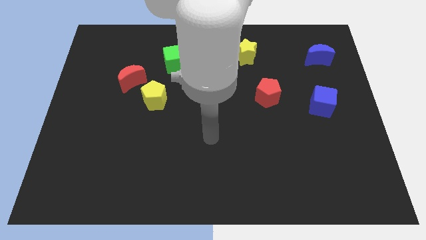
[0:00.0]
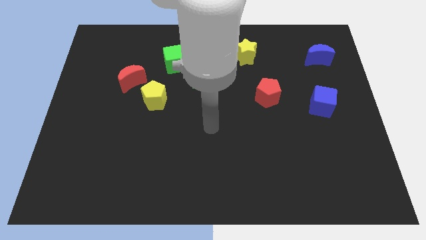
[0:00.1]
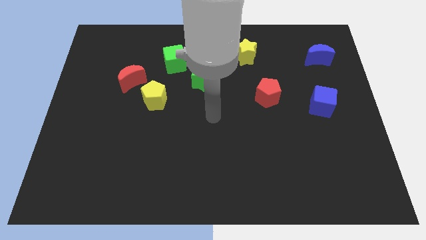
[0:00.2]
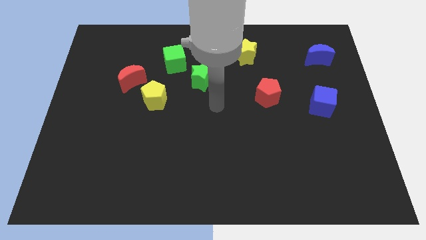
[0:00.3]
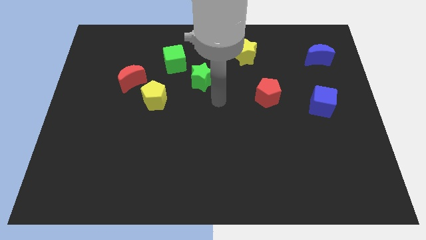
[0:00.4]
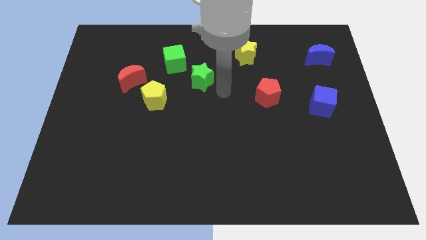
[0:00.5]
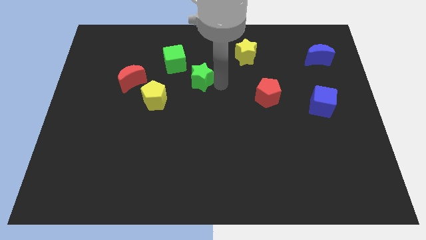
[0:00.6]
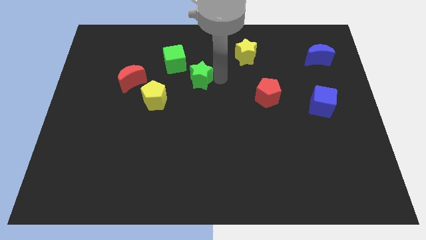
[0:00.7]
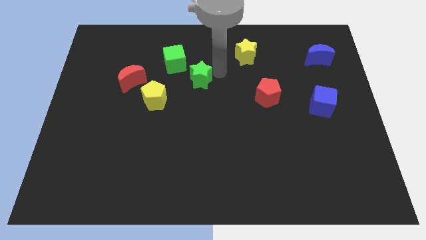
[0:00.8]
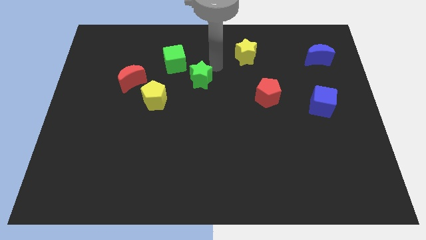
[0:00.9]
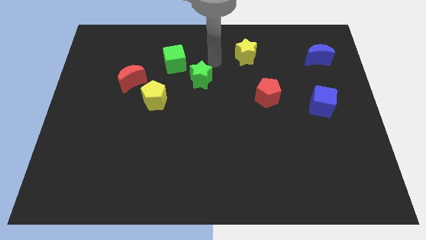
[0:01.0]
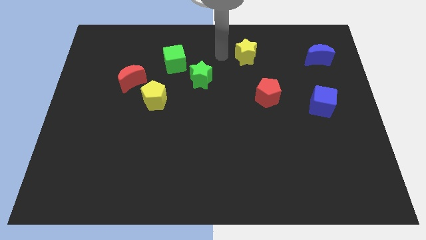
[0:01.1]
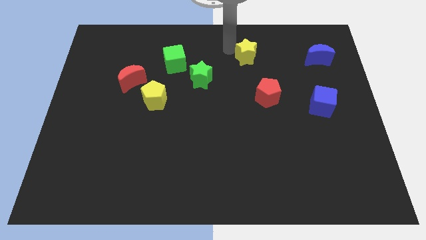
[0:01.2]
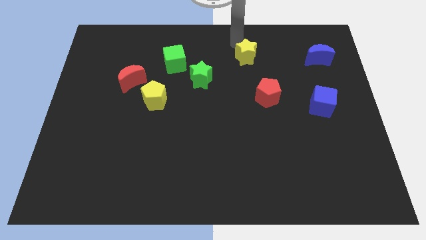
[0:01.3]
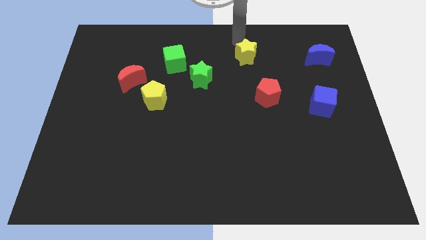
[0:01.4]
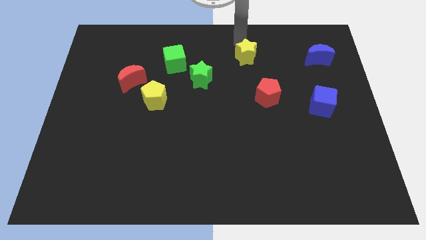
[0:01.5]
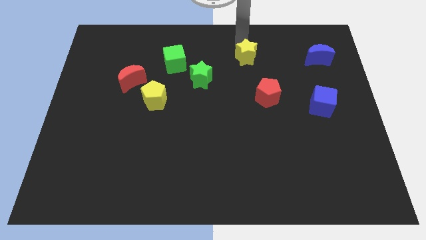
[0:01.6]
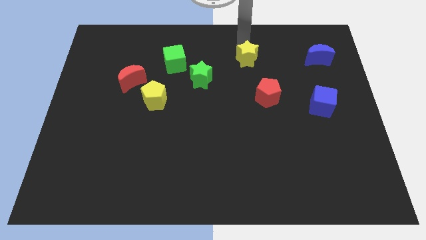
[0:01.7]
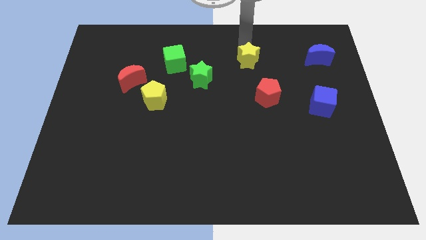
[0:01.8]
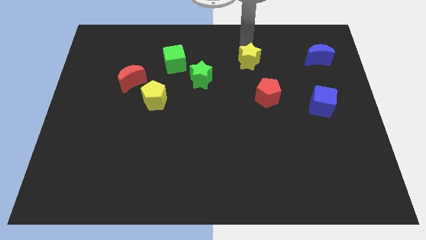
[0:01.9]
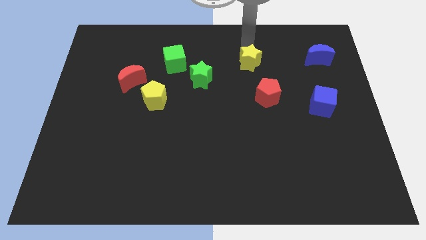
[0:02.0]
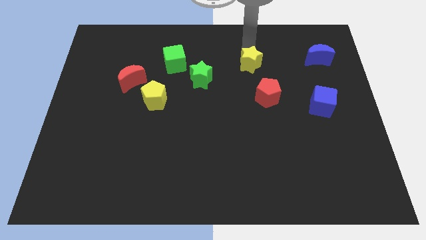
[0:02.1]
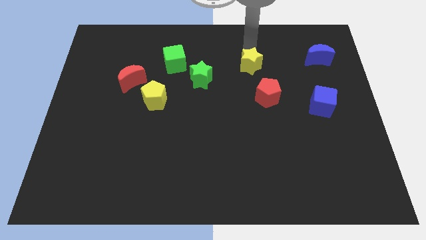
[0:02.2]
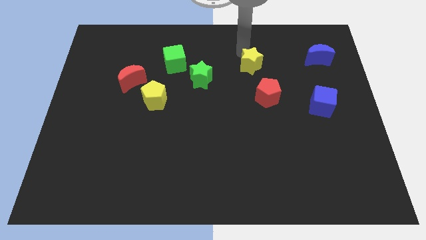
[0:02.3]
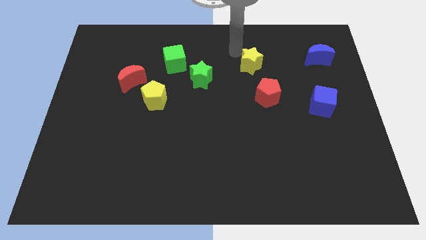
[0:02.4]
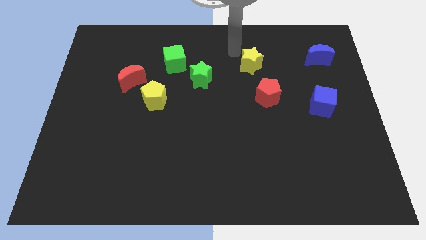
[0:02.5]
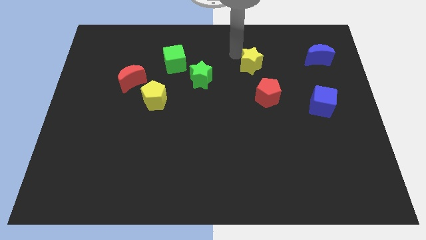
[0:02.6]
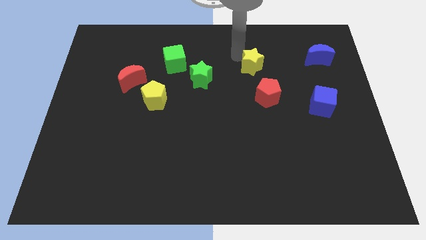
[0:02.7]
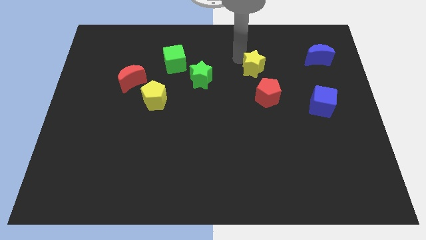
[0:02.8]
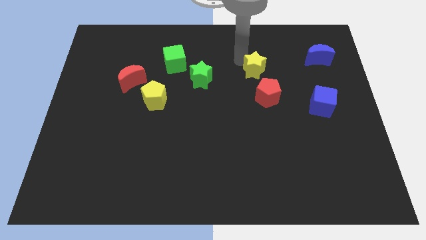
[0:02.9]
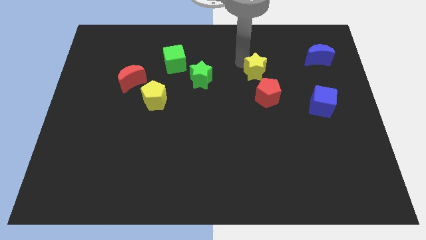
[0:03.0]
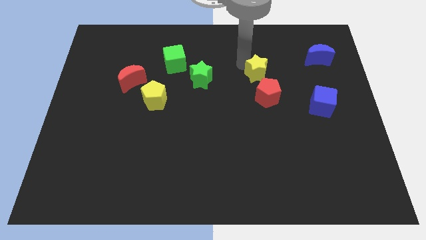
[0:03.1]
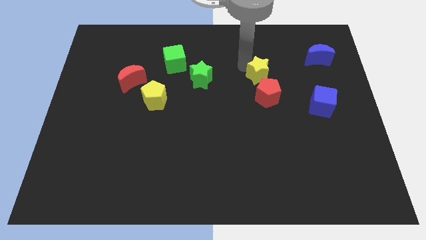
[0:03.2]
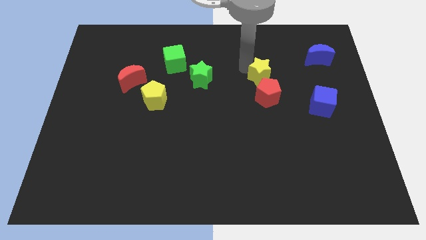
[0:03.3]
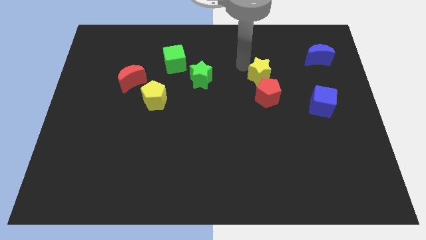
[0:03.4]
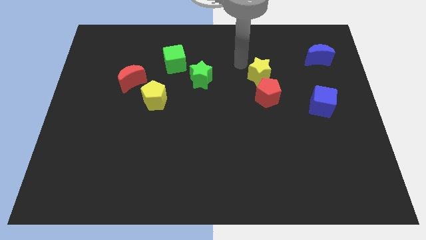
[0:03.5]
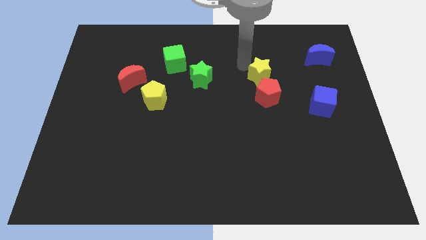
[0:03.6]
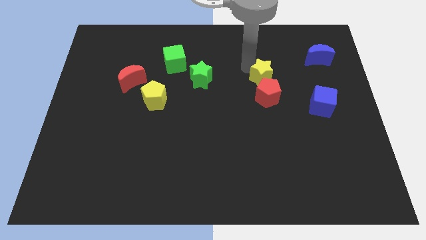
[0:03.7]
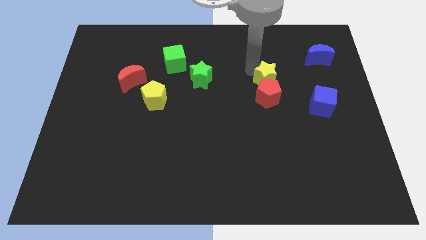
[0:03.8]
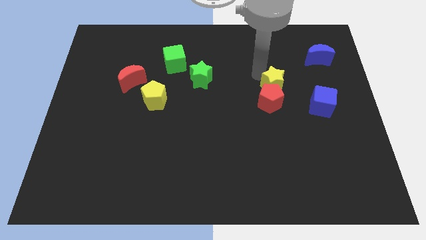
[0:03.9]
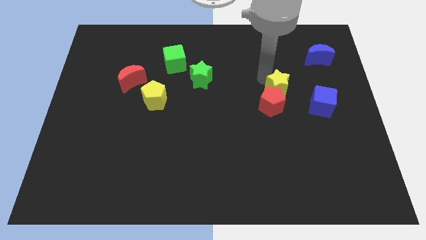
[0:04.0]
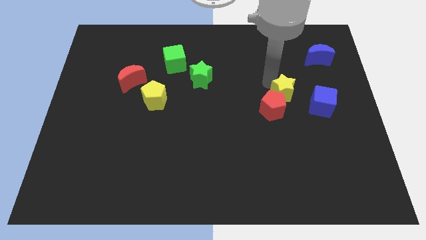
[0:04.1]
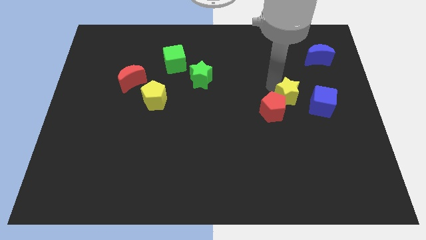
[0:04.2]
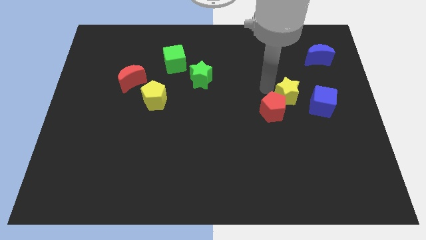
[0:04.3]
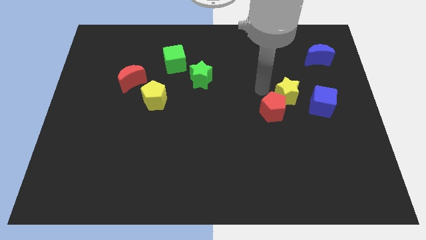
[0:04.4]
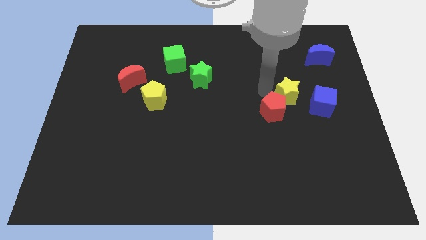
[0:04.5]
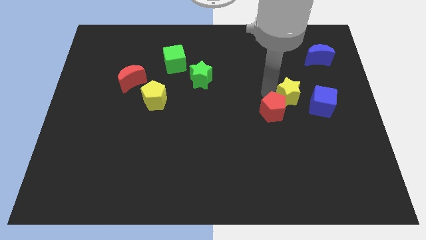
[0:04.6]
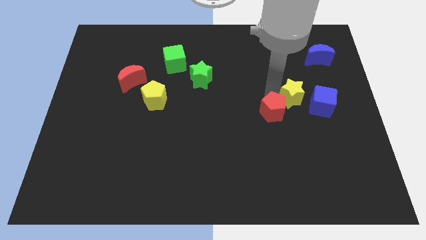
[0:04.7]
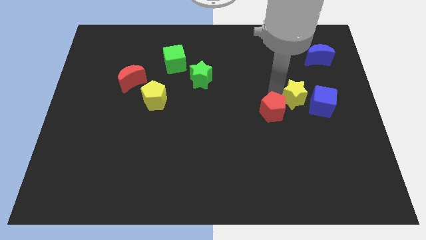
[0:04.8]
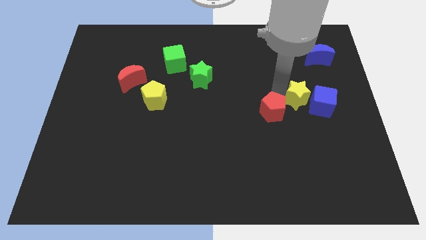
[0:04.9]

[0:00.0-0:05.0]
push the yellow star towards the blue cube
